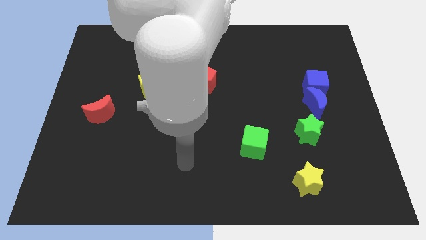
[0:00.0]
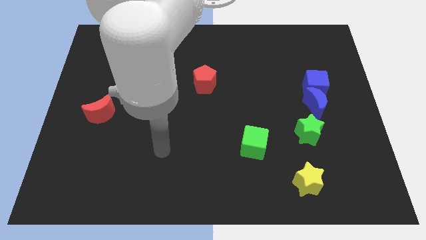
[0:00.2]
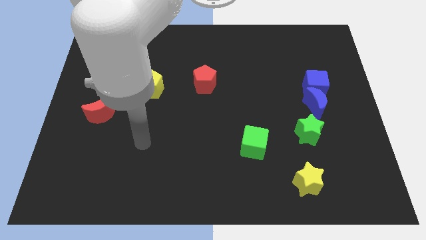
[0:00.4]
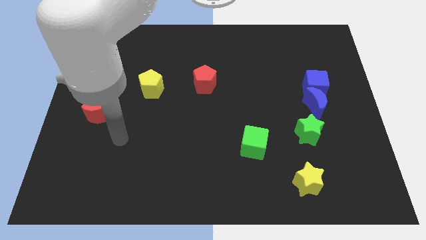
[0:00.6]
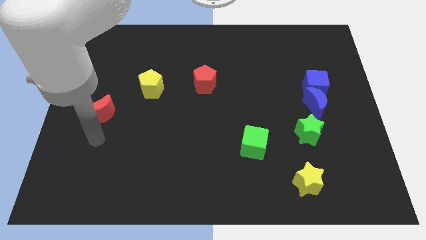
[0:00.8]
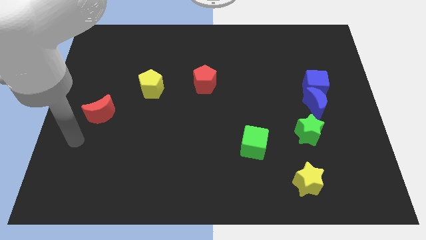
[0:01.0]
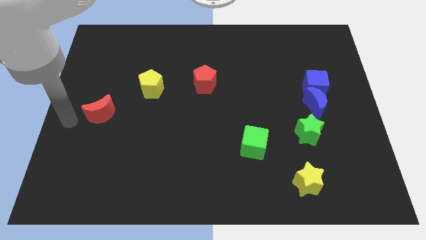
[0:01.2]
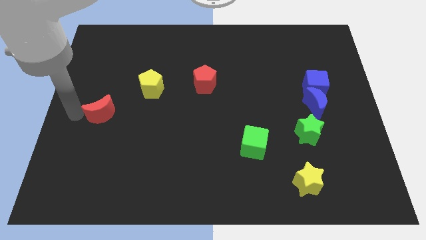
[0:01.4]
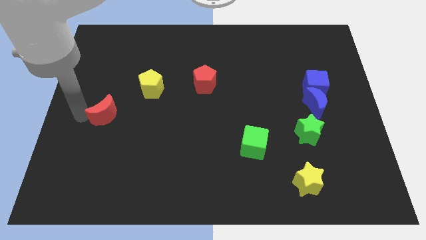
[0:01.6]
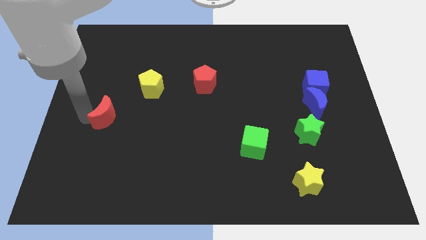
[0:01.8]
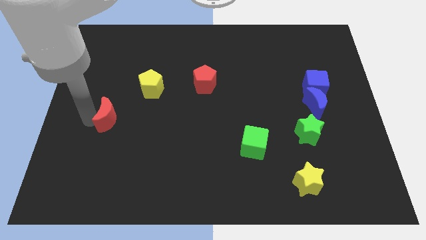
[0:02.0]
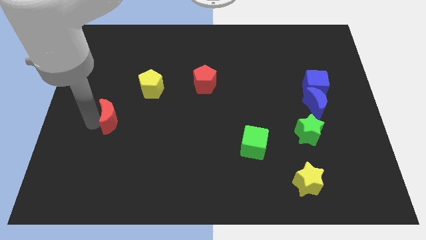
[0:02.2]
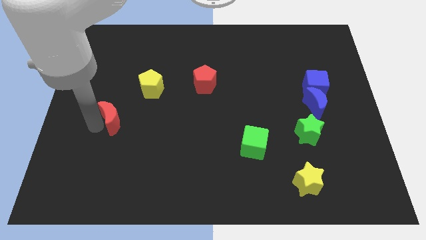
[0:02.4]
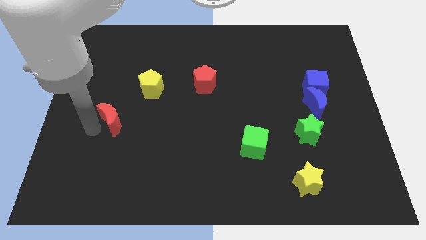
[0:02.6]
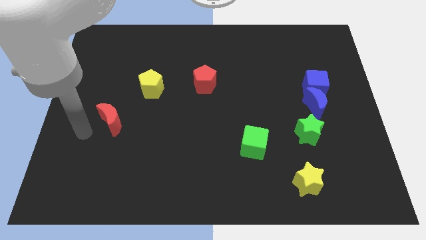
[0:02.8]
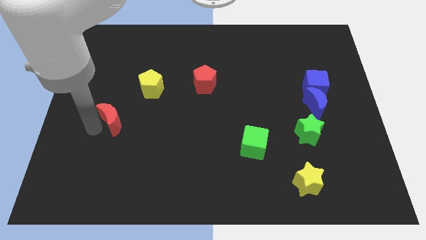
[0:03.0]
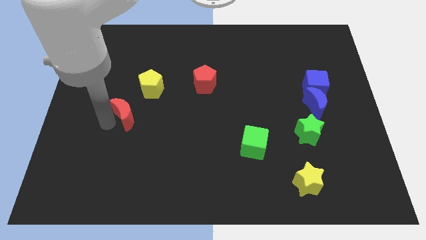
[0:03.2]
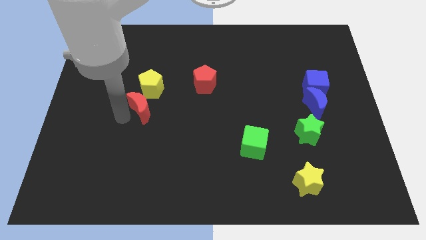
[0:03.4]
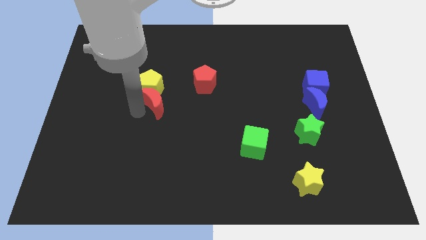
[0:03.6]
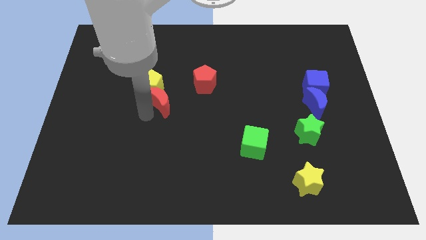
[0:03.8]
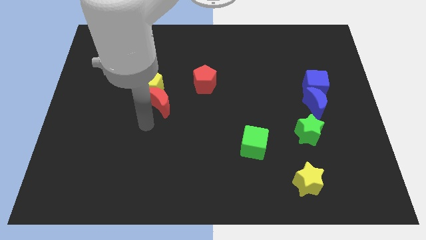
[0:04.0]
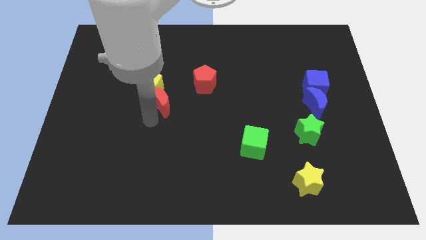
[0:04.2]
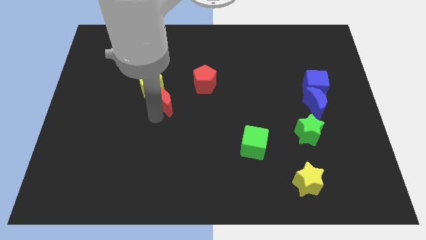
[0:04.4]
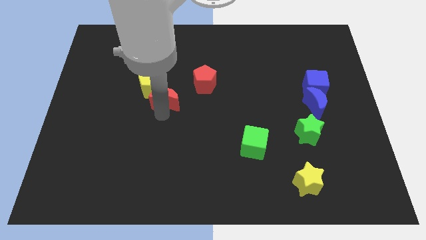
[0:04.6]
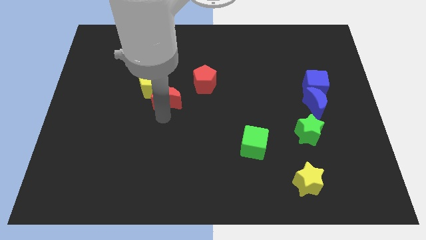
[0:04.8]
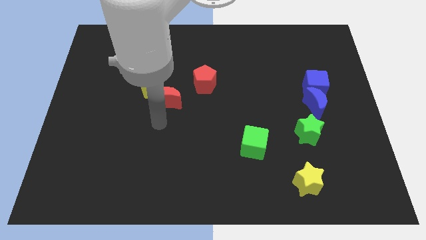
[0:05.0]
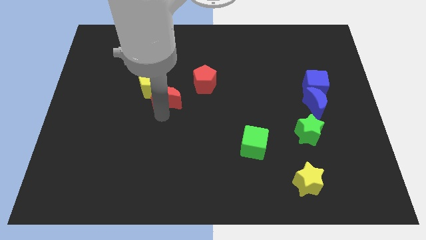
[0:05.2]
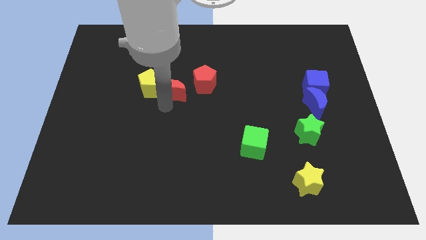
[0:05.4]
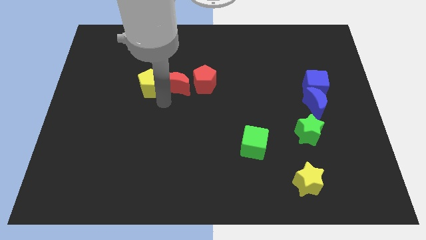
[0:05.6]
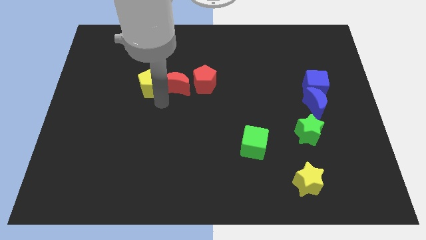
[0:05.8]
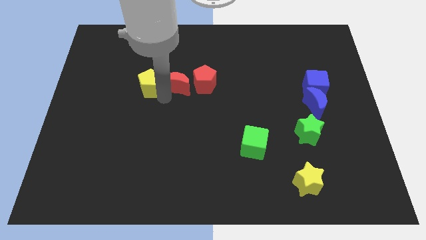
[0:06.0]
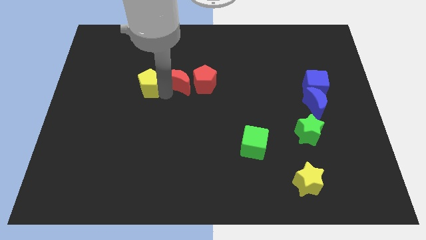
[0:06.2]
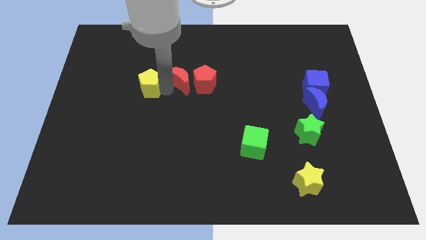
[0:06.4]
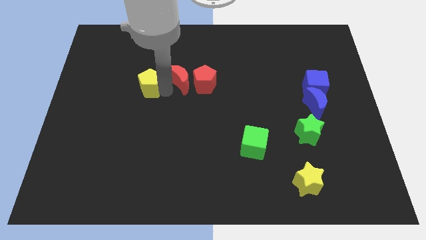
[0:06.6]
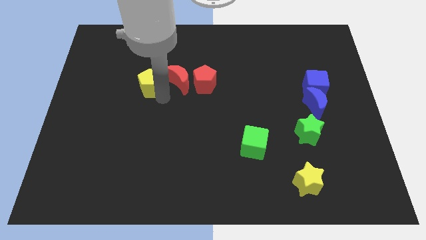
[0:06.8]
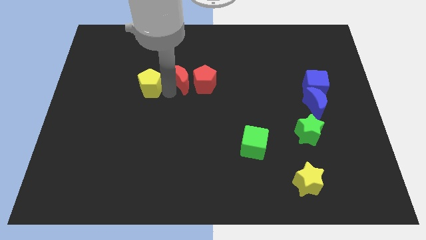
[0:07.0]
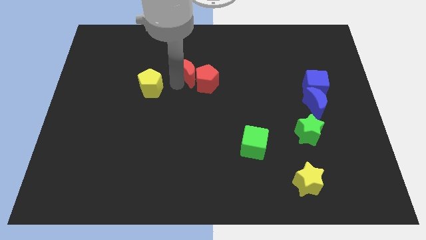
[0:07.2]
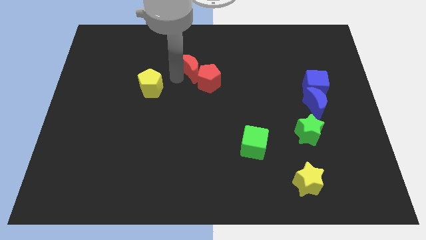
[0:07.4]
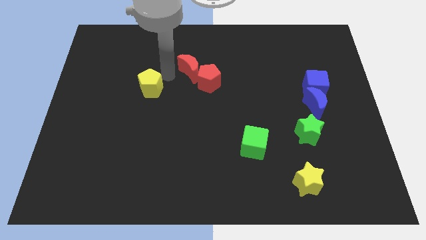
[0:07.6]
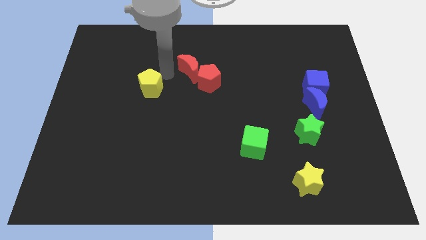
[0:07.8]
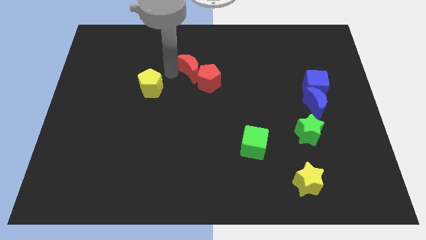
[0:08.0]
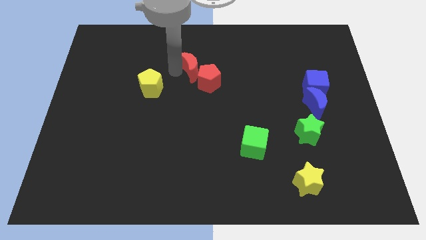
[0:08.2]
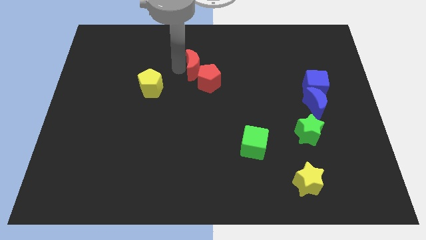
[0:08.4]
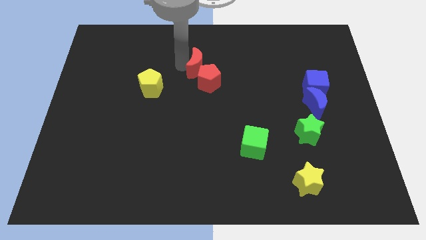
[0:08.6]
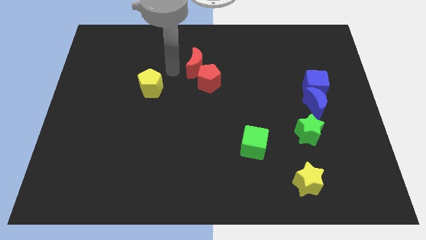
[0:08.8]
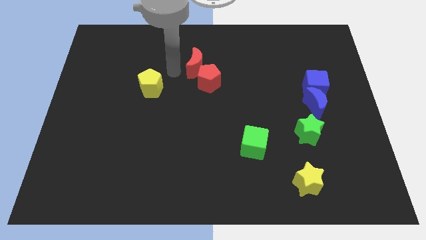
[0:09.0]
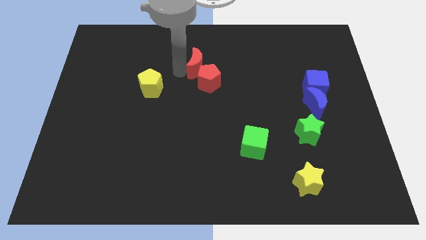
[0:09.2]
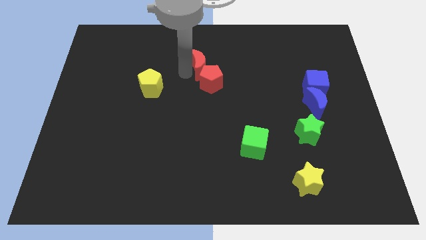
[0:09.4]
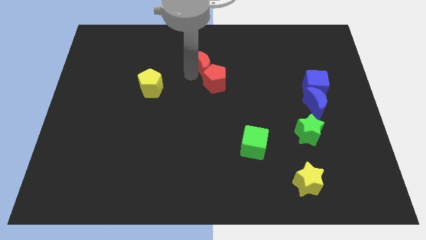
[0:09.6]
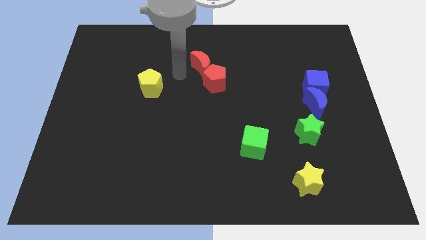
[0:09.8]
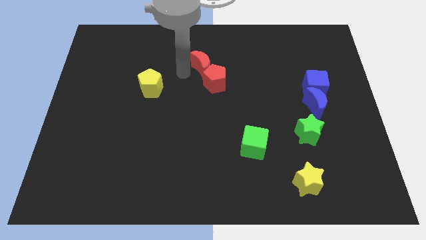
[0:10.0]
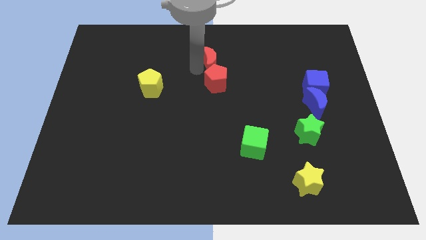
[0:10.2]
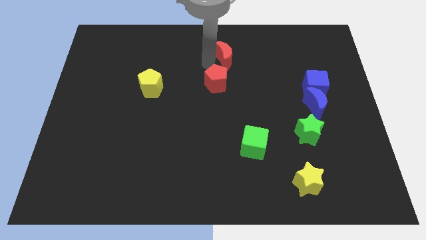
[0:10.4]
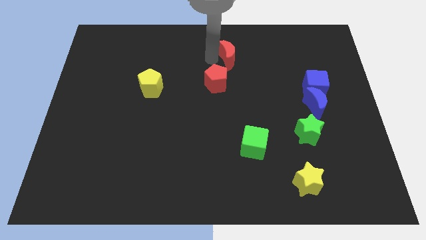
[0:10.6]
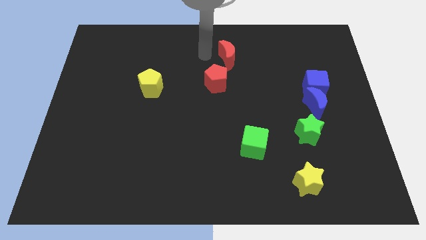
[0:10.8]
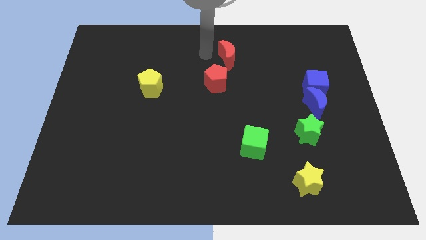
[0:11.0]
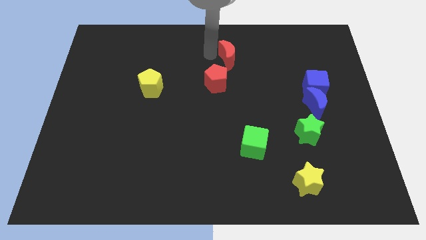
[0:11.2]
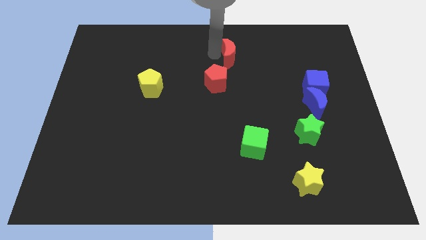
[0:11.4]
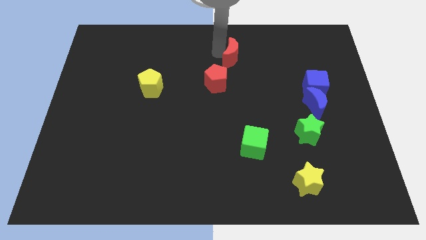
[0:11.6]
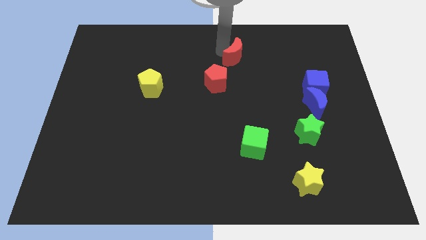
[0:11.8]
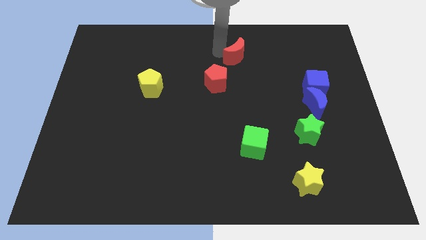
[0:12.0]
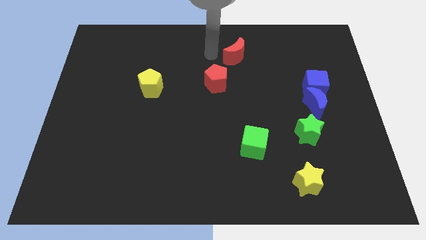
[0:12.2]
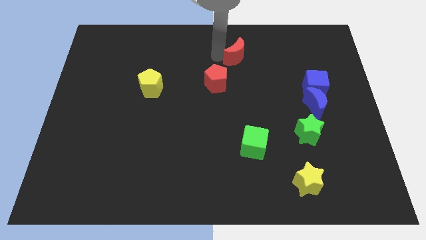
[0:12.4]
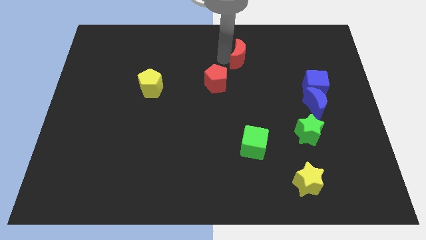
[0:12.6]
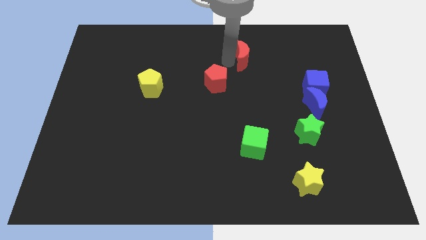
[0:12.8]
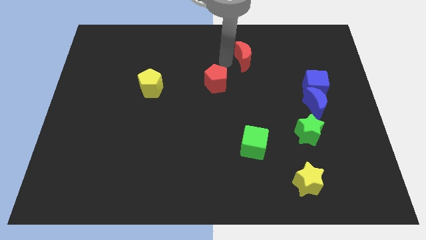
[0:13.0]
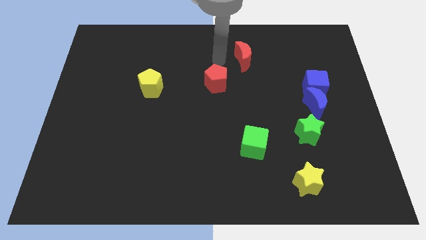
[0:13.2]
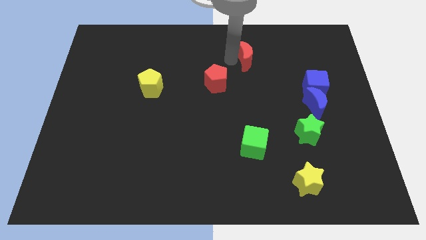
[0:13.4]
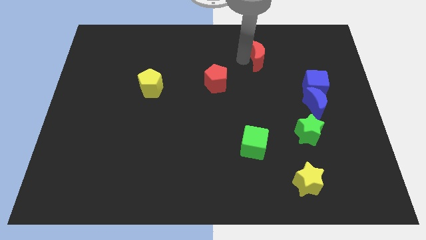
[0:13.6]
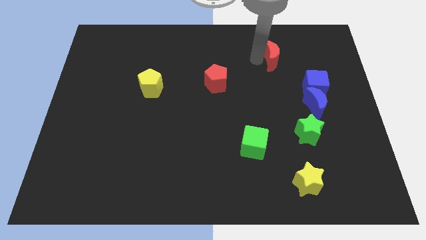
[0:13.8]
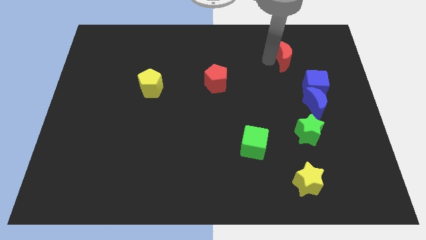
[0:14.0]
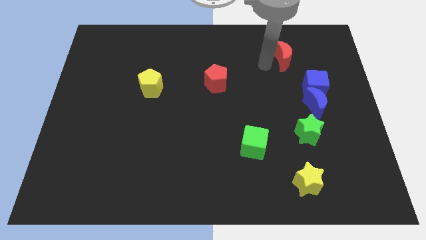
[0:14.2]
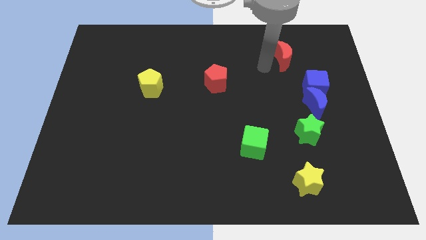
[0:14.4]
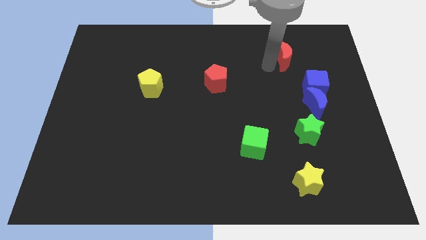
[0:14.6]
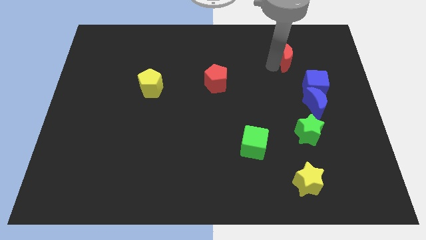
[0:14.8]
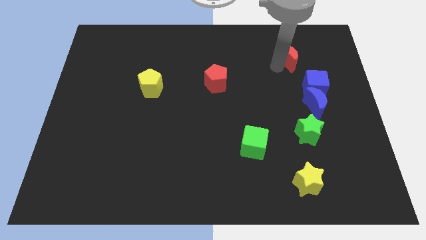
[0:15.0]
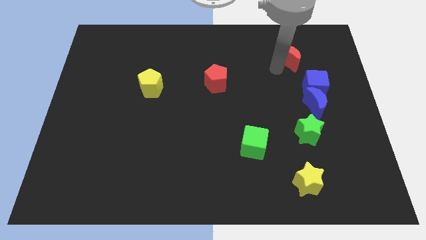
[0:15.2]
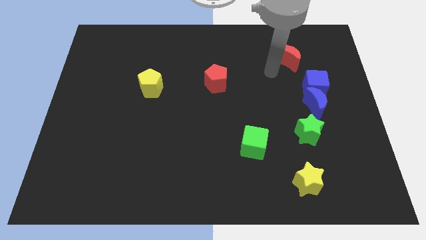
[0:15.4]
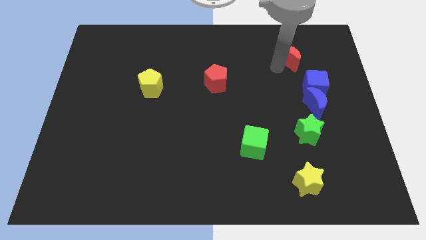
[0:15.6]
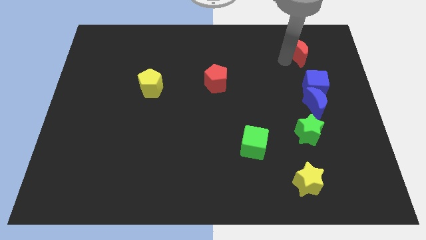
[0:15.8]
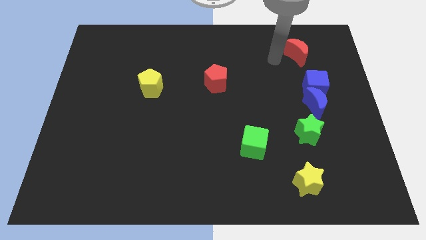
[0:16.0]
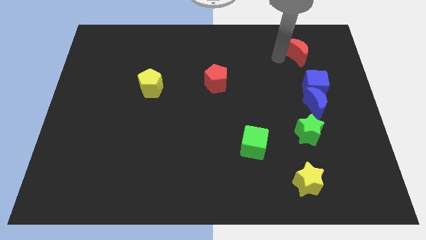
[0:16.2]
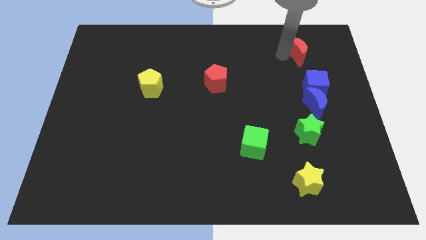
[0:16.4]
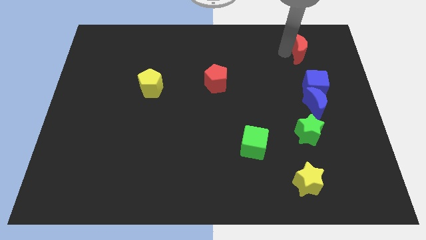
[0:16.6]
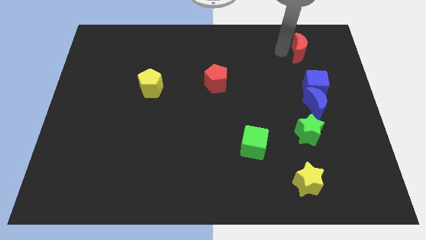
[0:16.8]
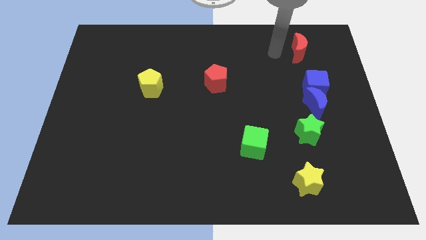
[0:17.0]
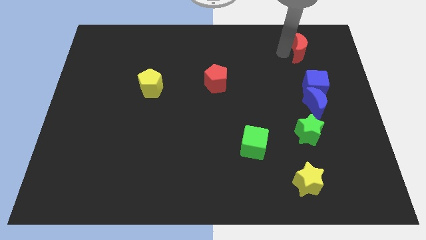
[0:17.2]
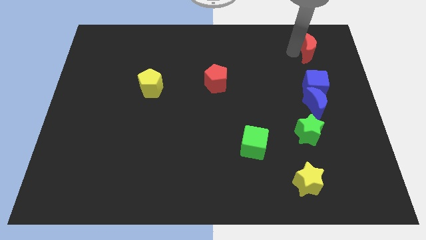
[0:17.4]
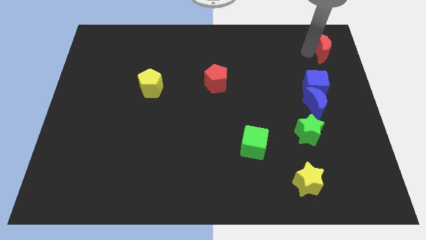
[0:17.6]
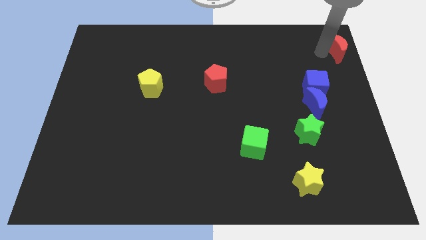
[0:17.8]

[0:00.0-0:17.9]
slide the red moon to the top right
